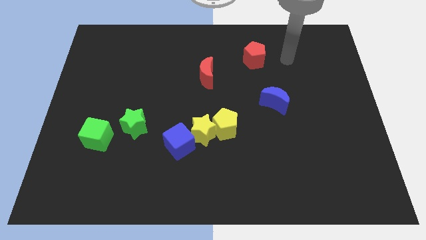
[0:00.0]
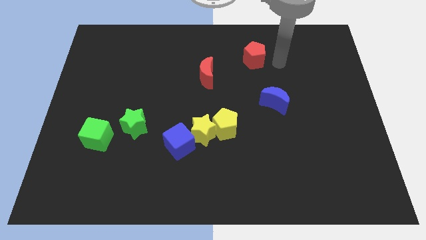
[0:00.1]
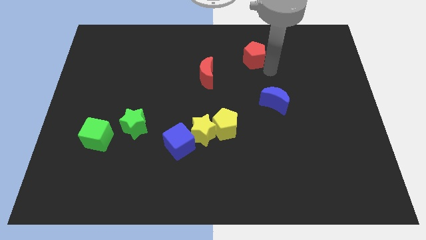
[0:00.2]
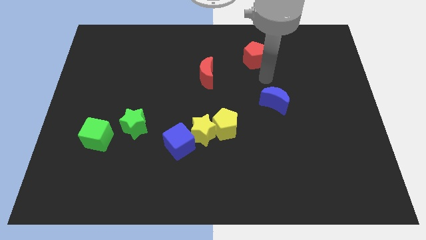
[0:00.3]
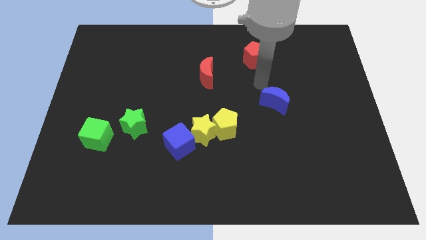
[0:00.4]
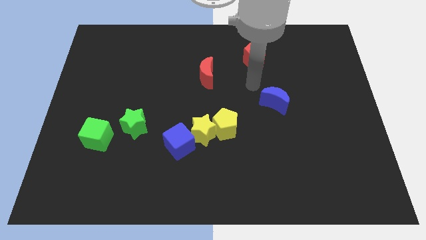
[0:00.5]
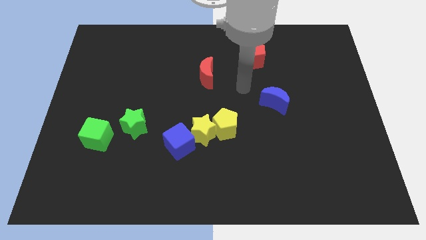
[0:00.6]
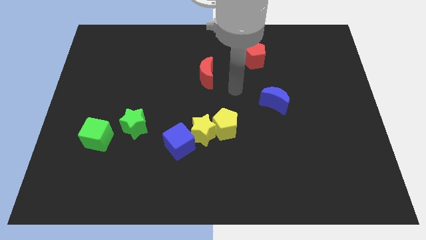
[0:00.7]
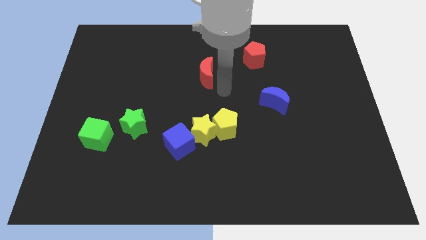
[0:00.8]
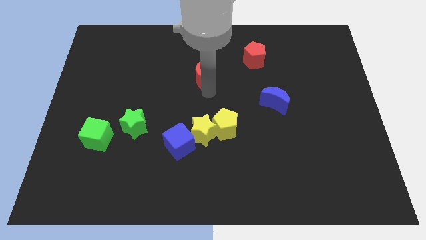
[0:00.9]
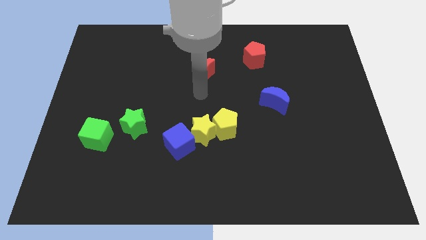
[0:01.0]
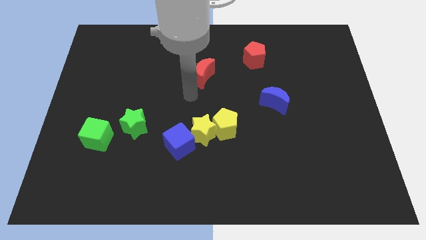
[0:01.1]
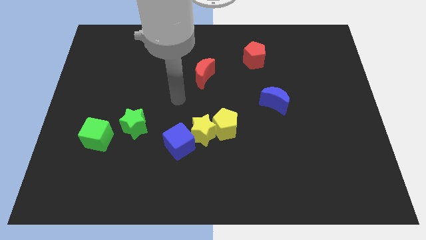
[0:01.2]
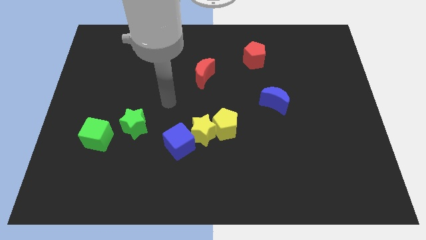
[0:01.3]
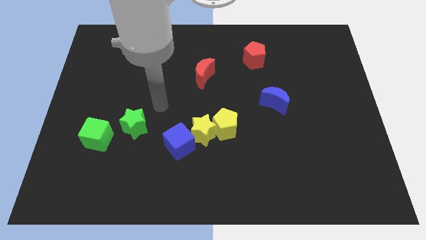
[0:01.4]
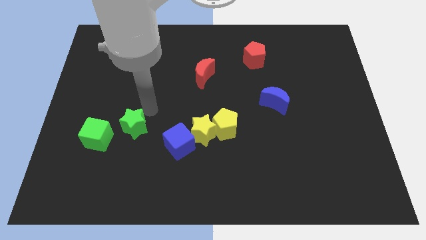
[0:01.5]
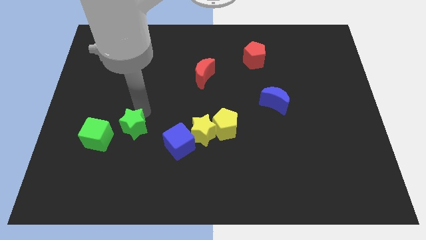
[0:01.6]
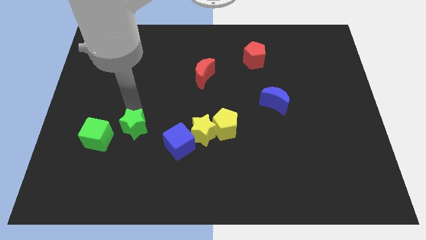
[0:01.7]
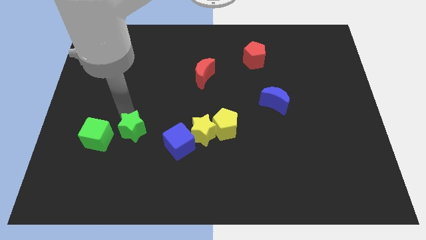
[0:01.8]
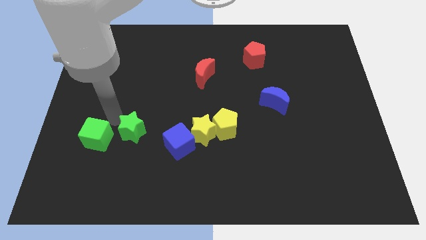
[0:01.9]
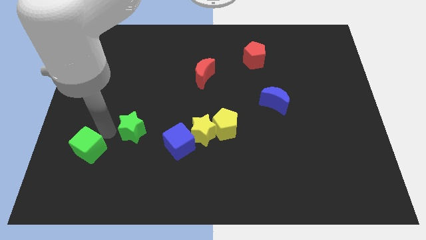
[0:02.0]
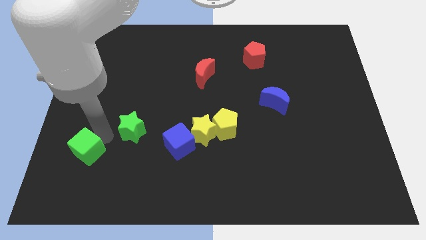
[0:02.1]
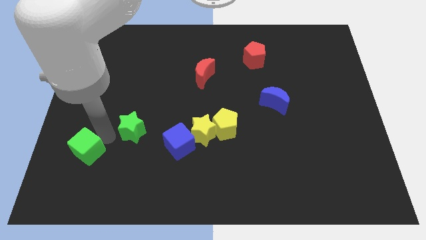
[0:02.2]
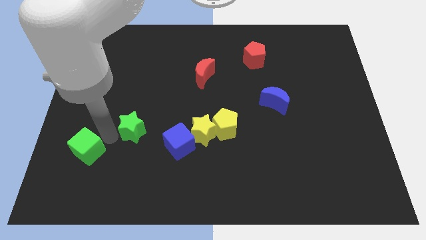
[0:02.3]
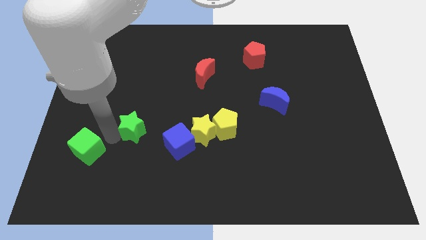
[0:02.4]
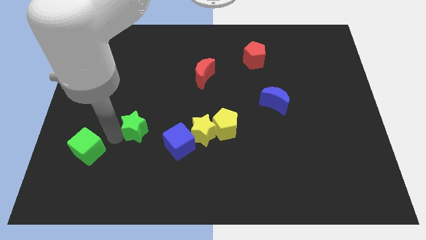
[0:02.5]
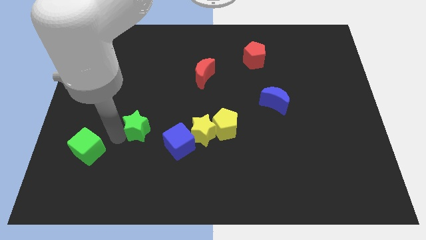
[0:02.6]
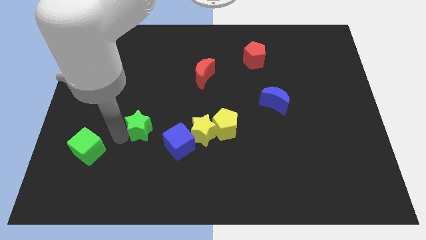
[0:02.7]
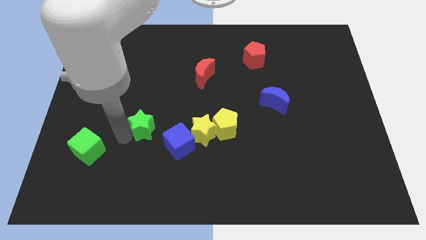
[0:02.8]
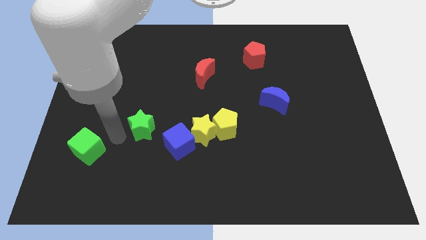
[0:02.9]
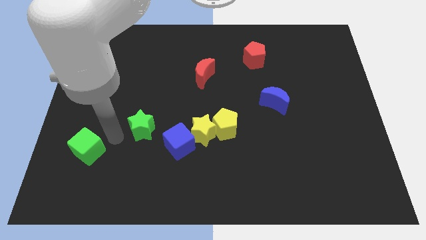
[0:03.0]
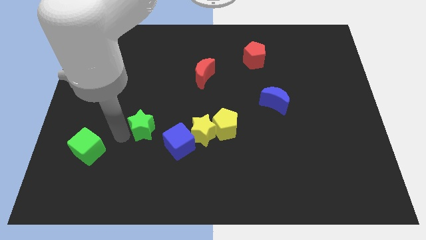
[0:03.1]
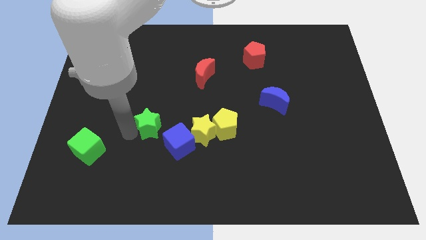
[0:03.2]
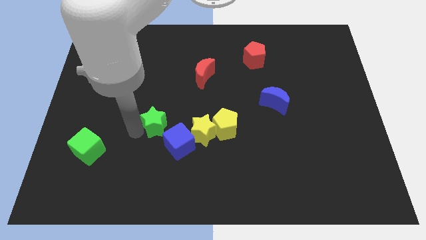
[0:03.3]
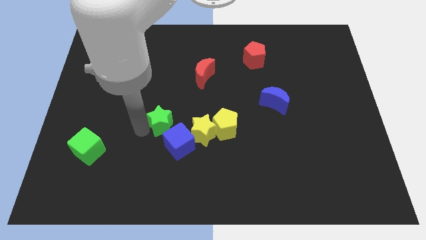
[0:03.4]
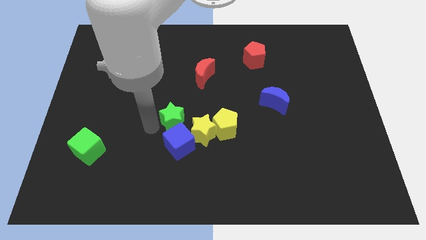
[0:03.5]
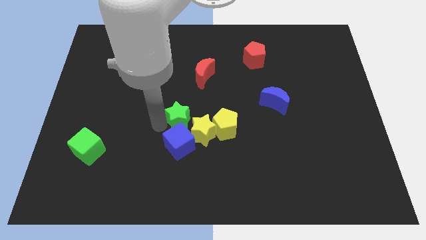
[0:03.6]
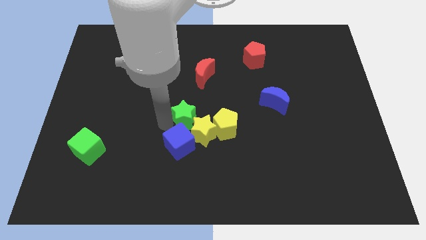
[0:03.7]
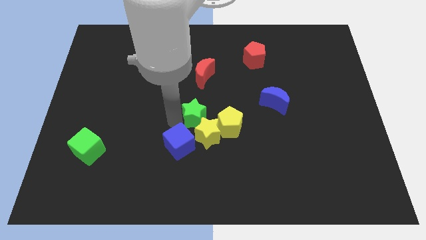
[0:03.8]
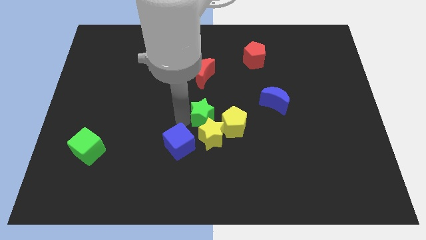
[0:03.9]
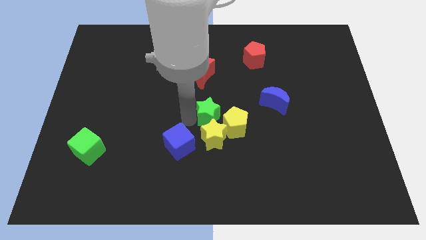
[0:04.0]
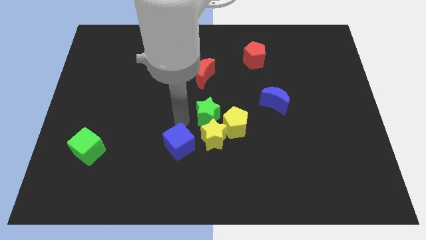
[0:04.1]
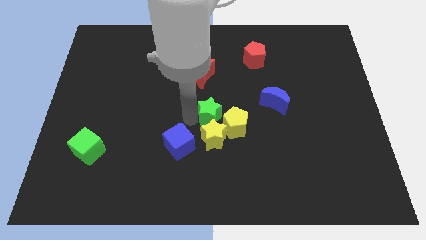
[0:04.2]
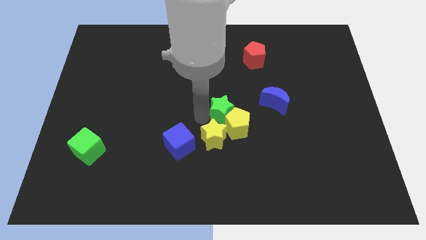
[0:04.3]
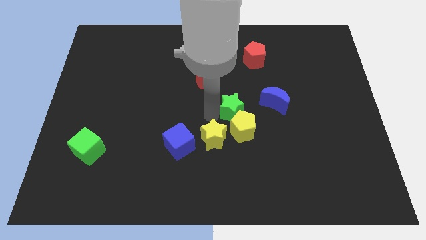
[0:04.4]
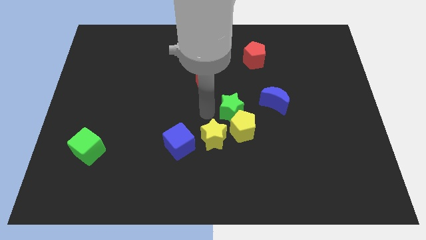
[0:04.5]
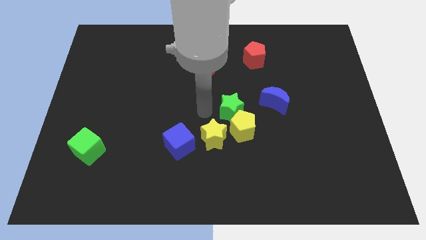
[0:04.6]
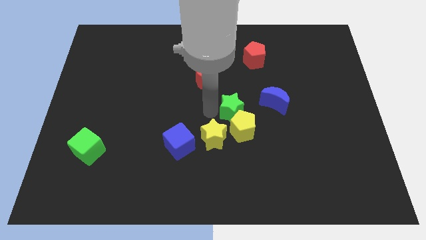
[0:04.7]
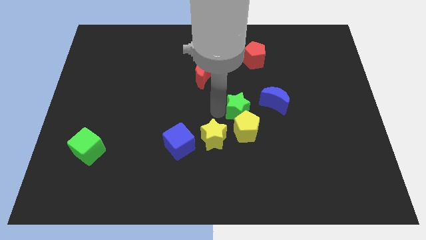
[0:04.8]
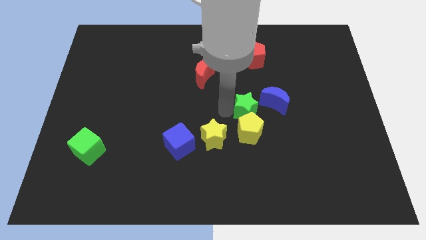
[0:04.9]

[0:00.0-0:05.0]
move the green star to the top right side of the yellow pentagon

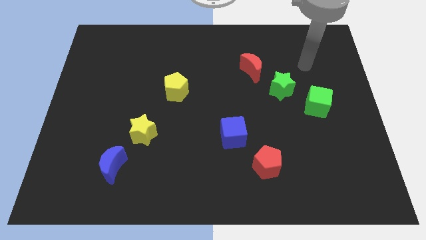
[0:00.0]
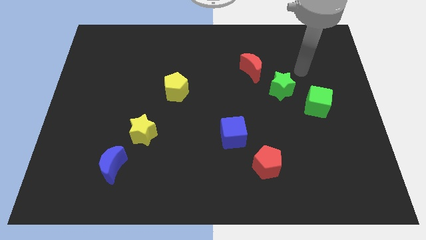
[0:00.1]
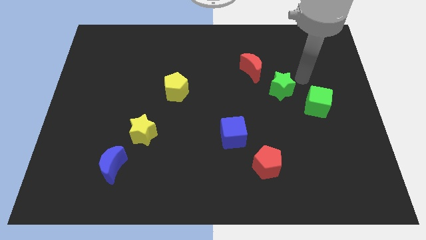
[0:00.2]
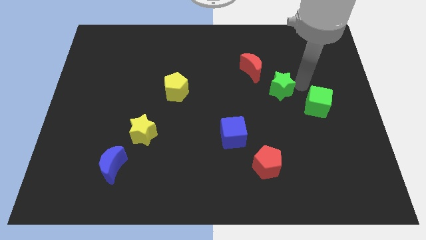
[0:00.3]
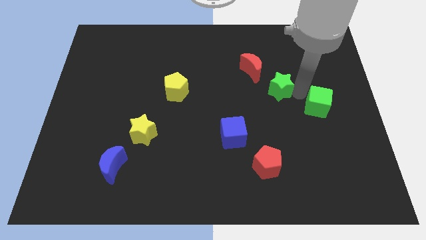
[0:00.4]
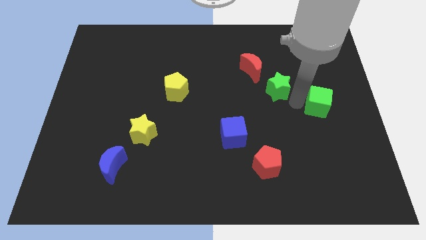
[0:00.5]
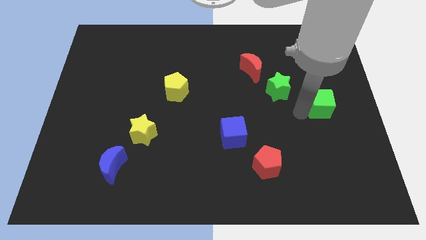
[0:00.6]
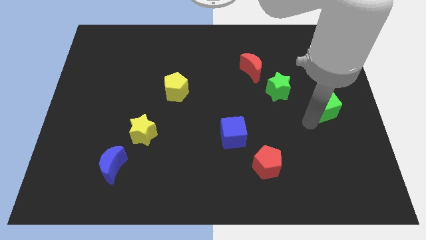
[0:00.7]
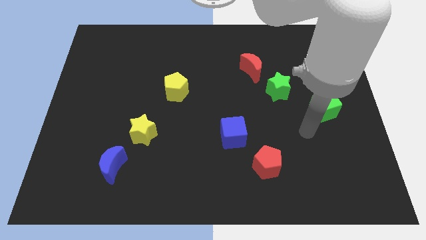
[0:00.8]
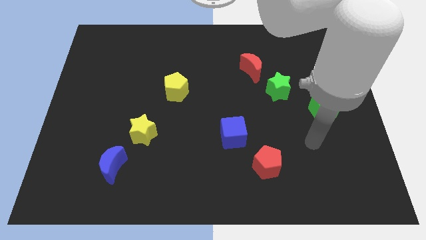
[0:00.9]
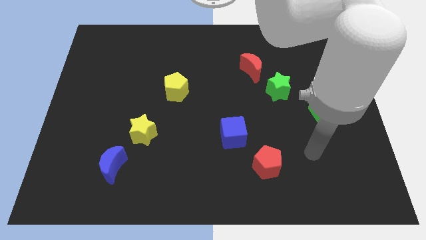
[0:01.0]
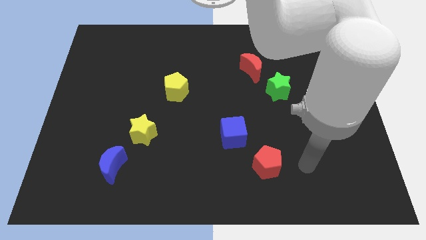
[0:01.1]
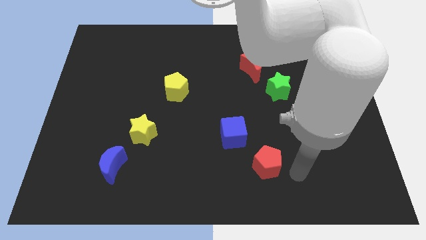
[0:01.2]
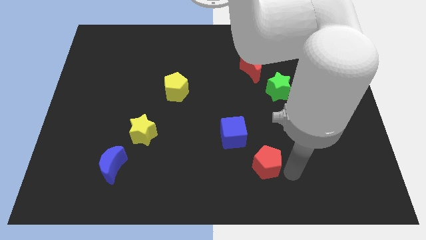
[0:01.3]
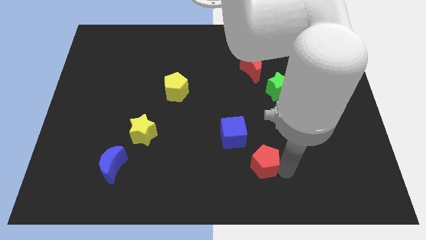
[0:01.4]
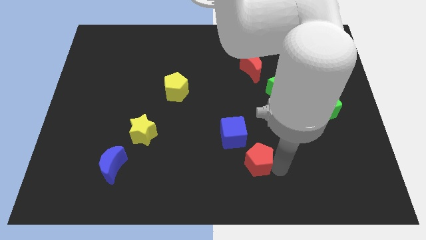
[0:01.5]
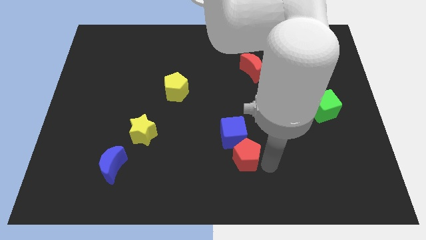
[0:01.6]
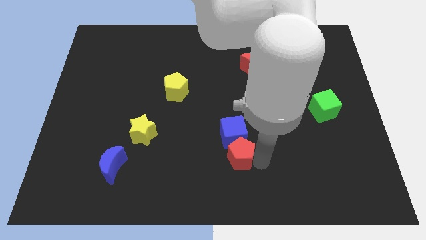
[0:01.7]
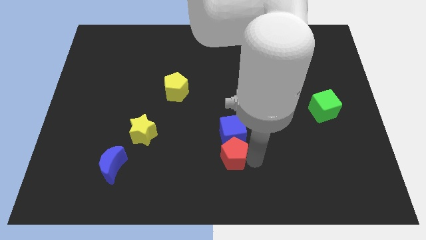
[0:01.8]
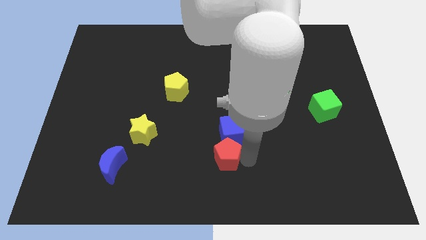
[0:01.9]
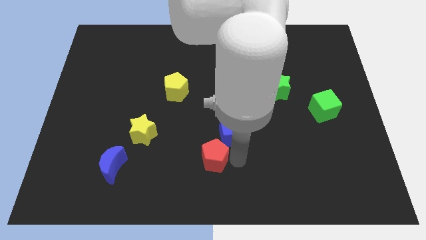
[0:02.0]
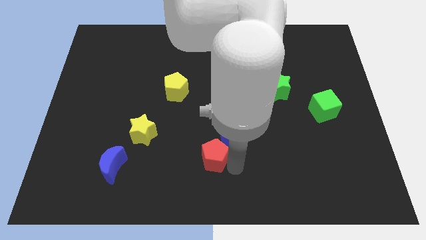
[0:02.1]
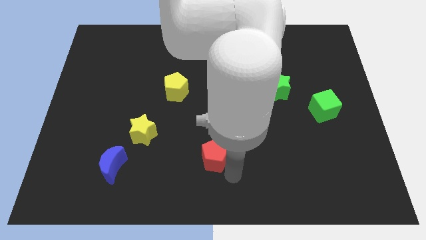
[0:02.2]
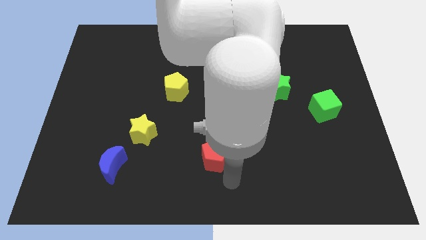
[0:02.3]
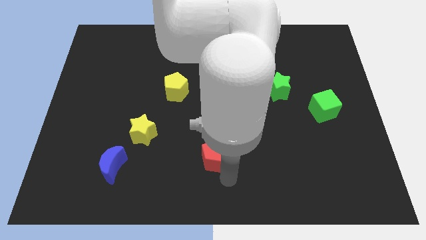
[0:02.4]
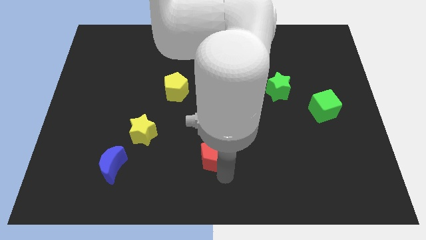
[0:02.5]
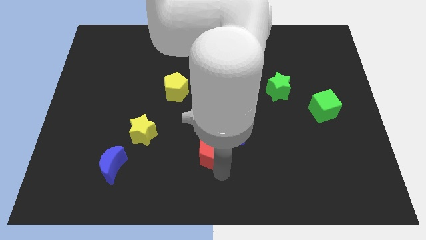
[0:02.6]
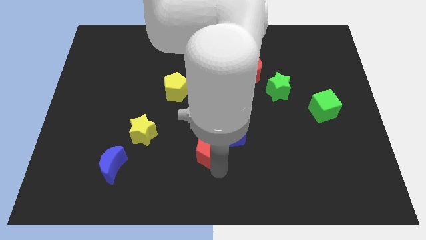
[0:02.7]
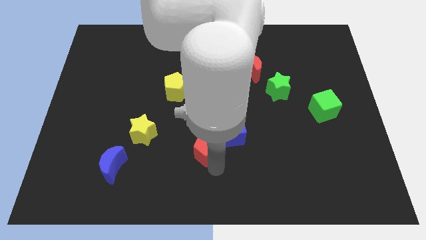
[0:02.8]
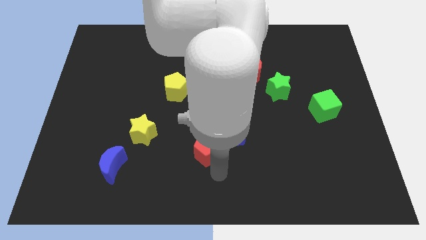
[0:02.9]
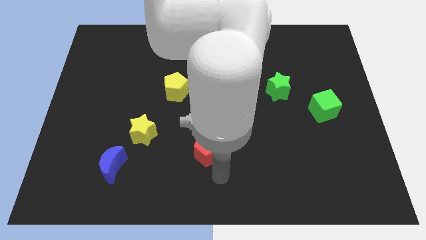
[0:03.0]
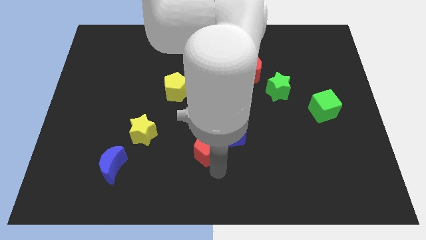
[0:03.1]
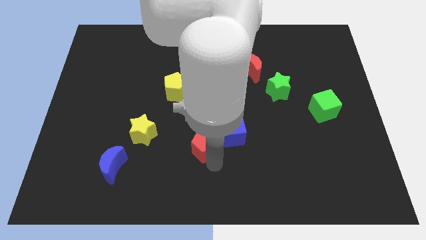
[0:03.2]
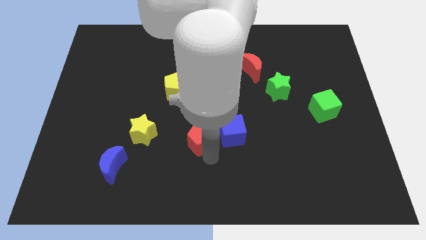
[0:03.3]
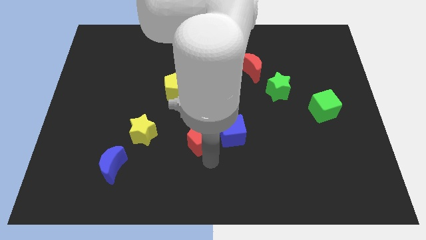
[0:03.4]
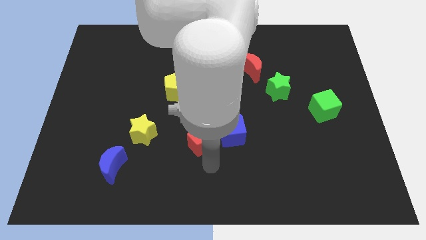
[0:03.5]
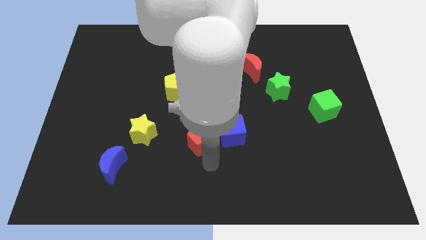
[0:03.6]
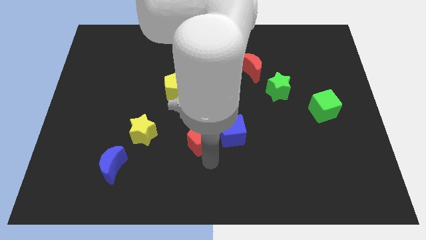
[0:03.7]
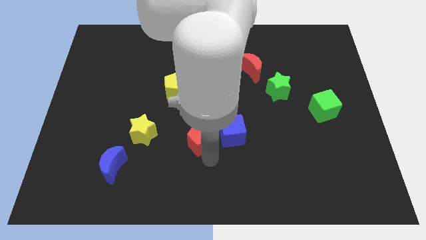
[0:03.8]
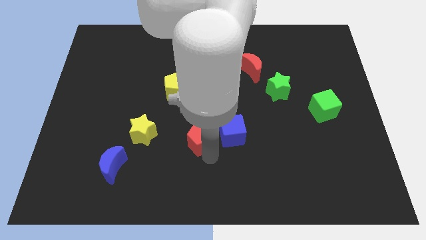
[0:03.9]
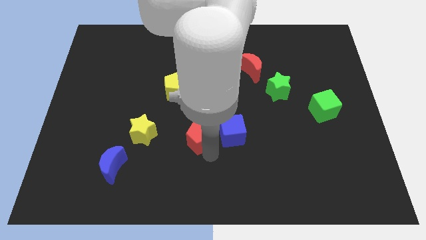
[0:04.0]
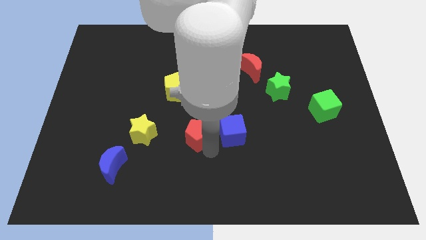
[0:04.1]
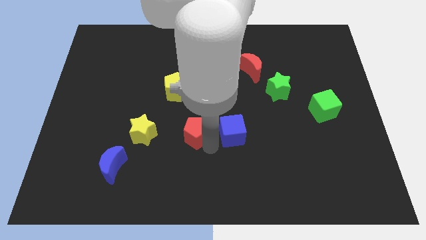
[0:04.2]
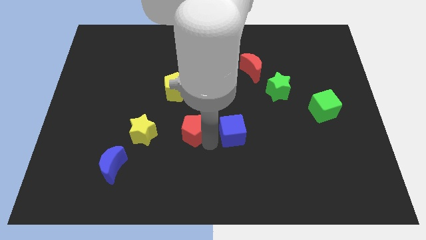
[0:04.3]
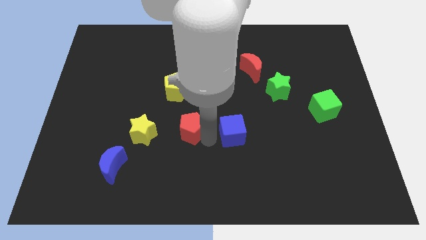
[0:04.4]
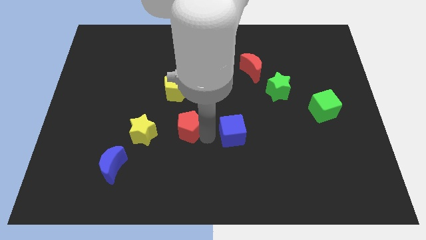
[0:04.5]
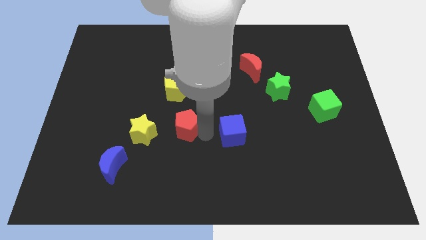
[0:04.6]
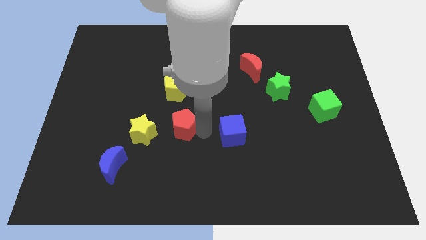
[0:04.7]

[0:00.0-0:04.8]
move the red pentagon to the top right side of the yellow star
